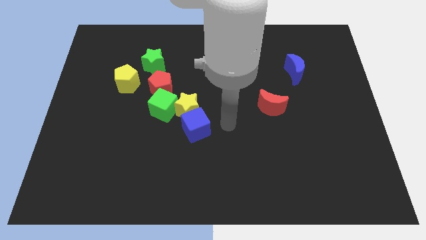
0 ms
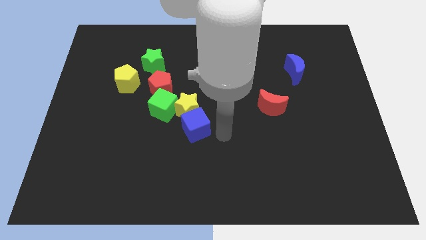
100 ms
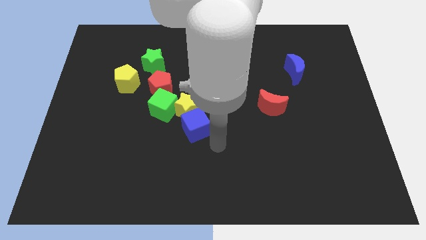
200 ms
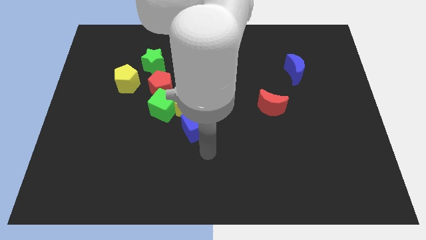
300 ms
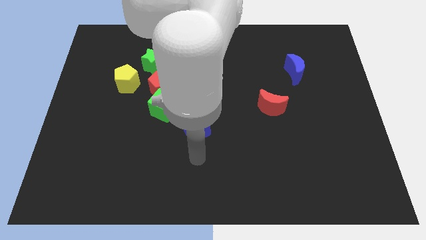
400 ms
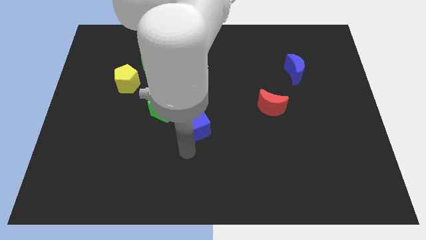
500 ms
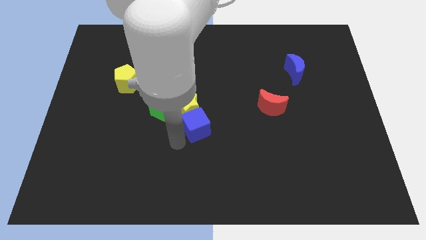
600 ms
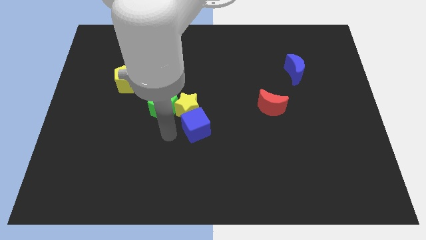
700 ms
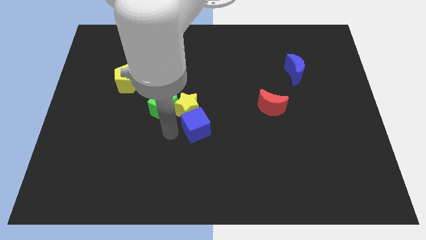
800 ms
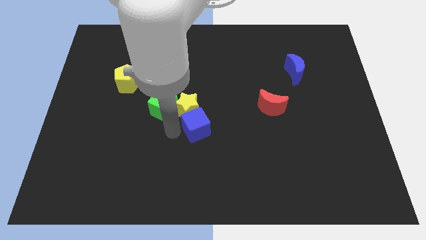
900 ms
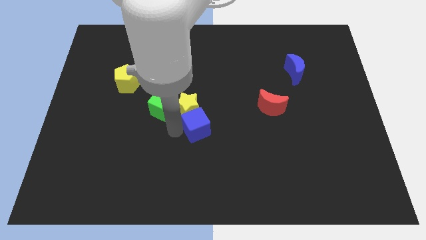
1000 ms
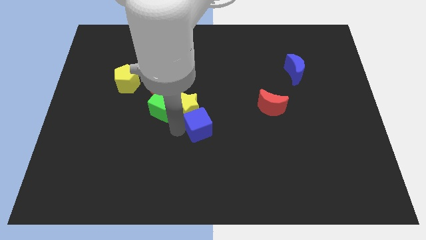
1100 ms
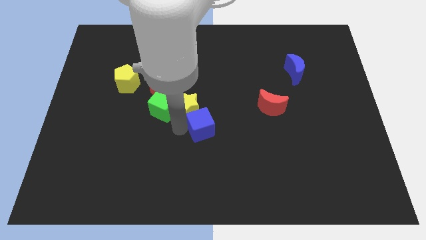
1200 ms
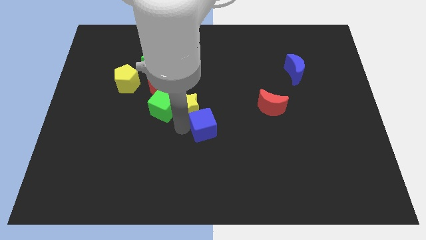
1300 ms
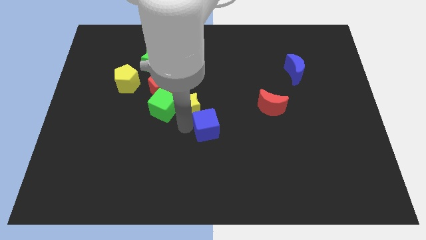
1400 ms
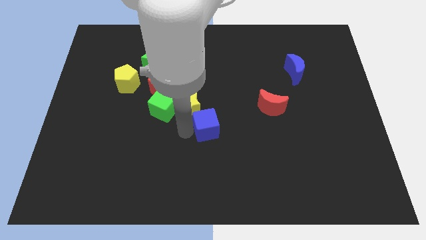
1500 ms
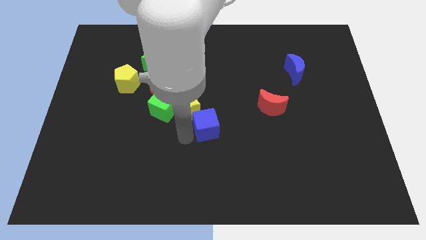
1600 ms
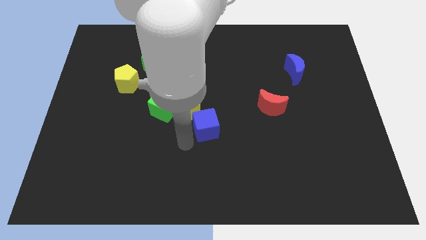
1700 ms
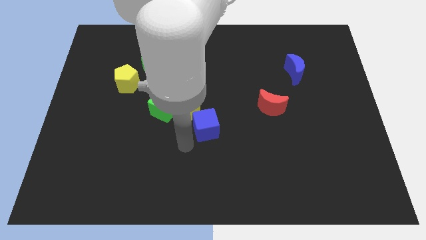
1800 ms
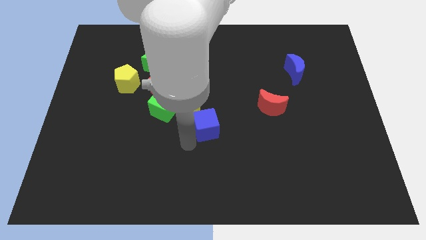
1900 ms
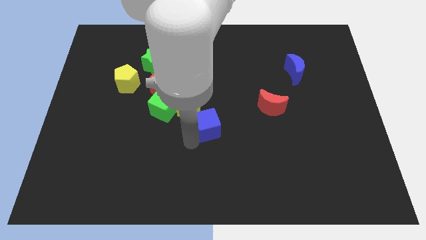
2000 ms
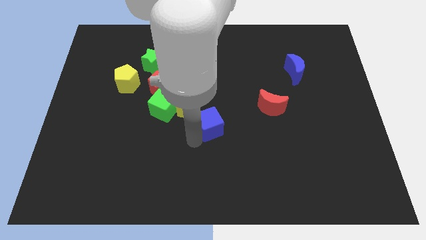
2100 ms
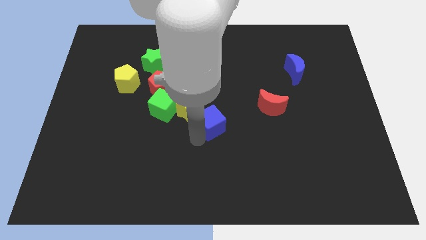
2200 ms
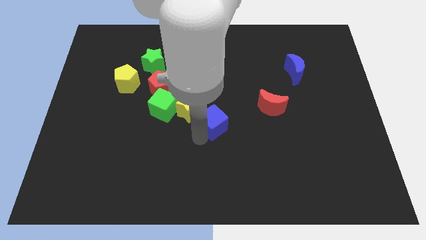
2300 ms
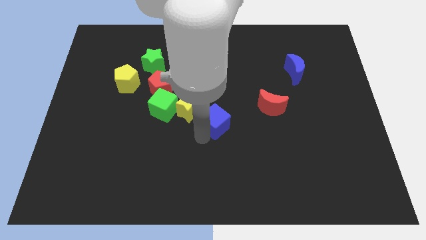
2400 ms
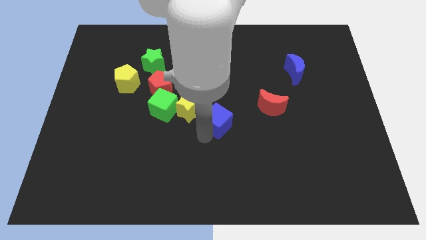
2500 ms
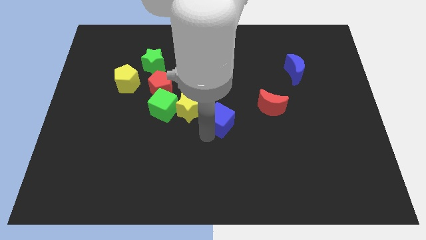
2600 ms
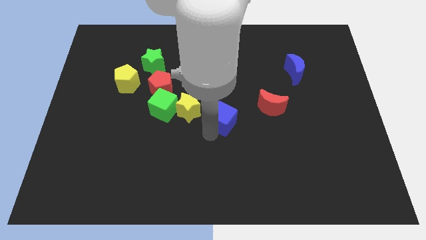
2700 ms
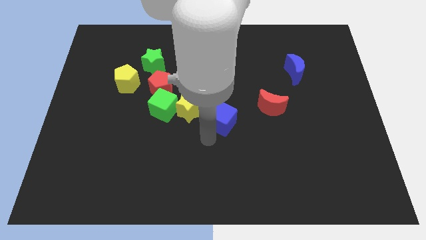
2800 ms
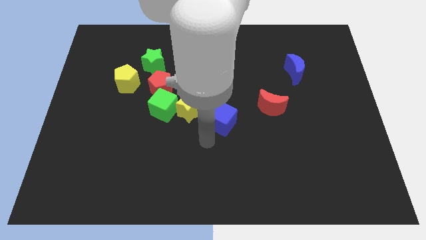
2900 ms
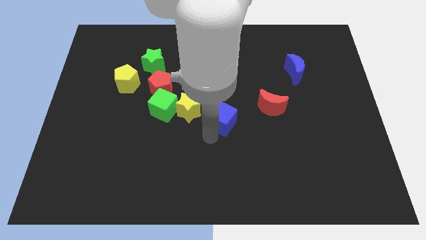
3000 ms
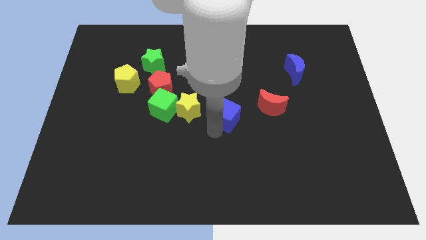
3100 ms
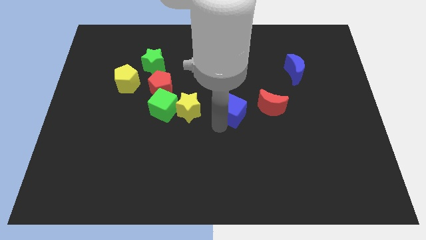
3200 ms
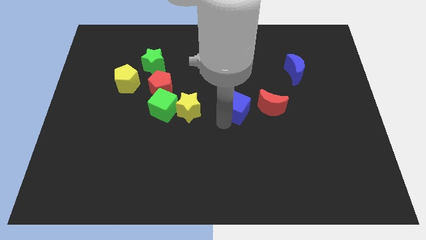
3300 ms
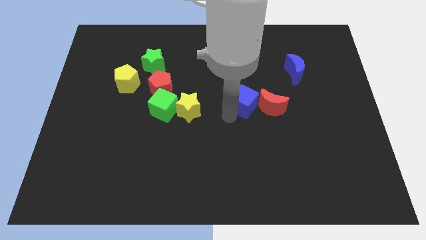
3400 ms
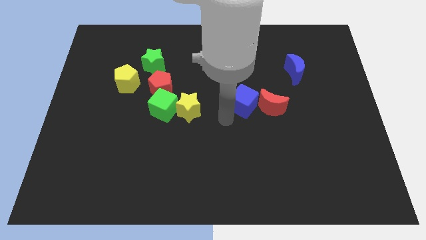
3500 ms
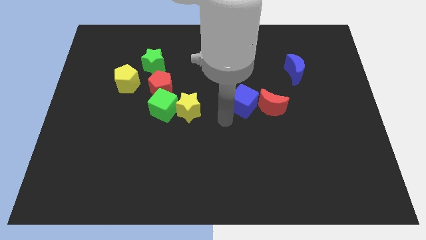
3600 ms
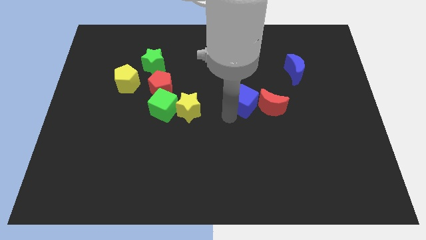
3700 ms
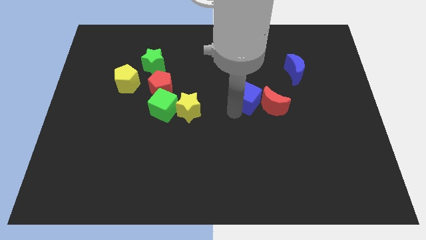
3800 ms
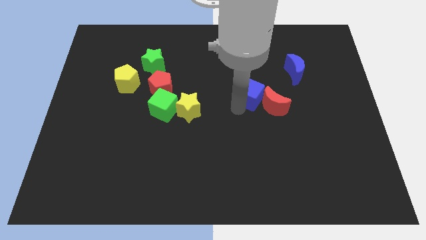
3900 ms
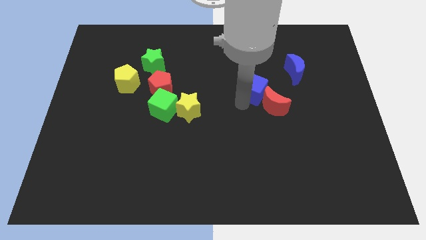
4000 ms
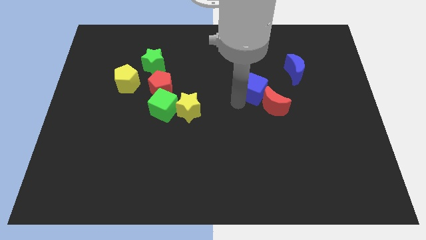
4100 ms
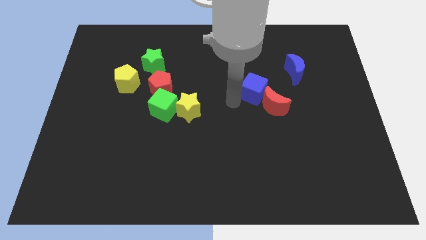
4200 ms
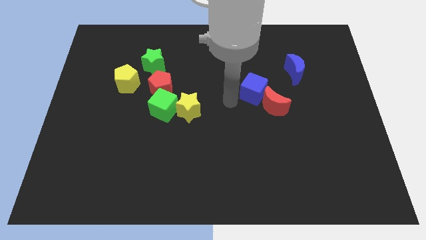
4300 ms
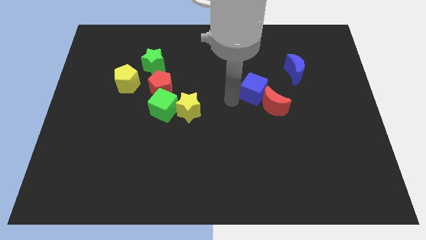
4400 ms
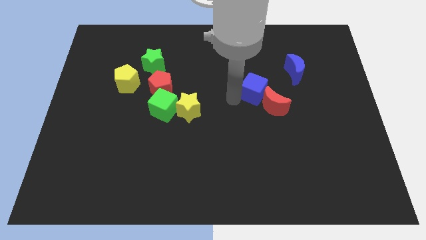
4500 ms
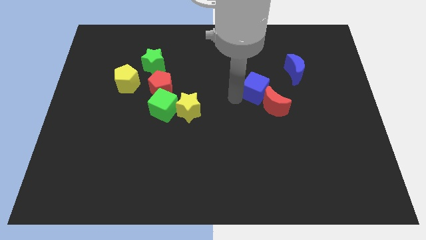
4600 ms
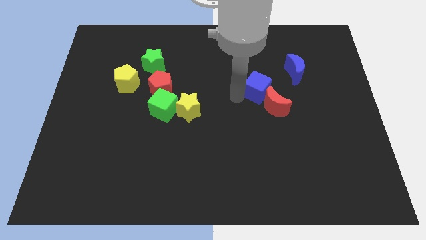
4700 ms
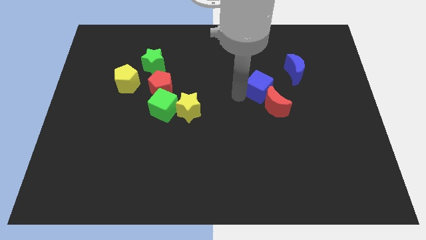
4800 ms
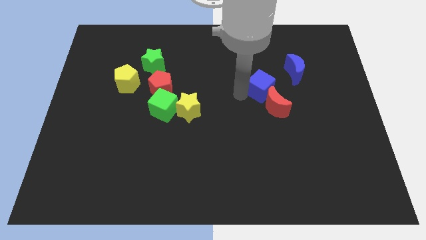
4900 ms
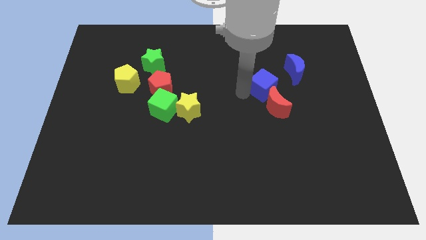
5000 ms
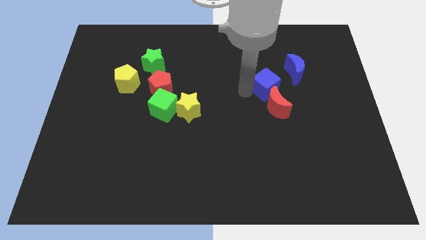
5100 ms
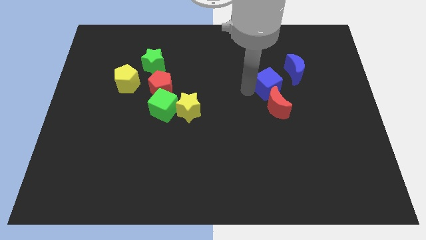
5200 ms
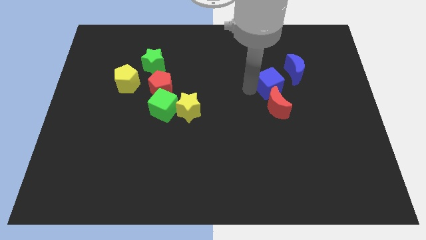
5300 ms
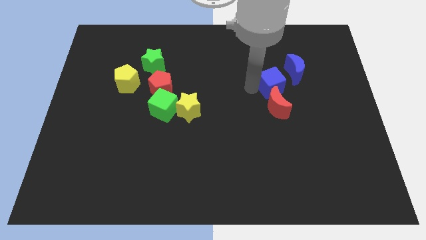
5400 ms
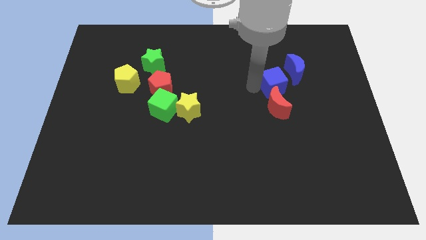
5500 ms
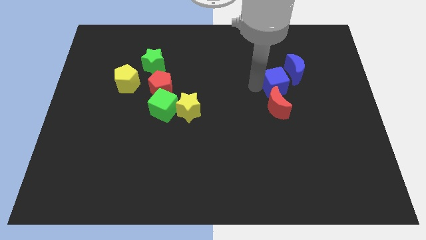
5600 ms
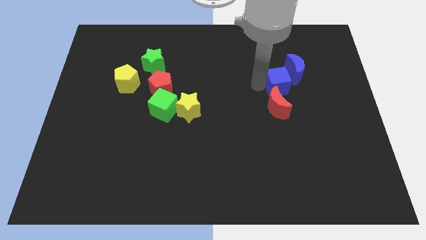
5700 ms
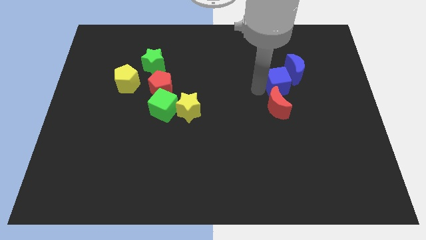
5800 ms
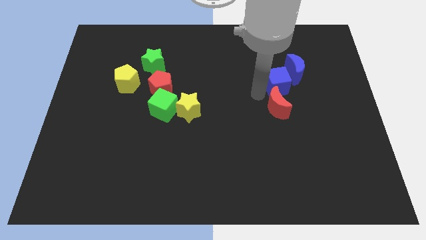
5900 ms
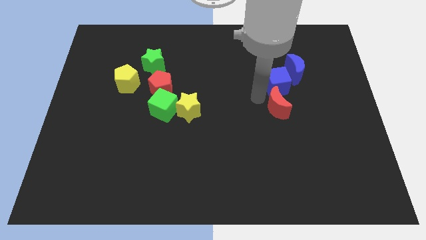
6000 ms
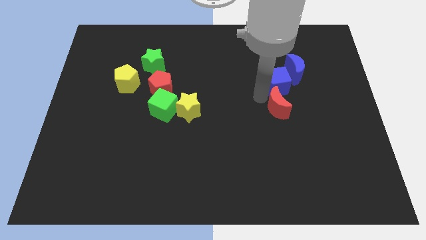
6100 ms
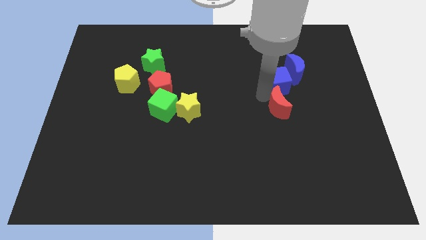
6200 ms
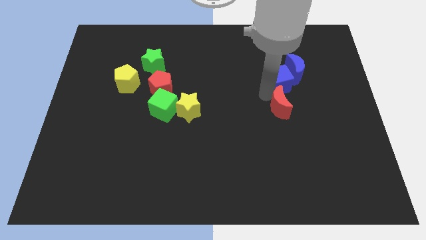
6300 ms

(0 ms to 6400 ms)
move the blue cube next to the blue moon

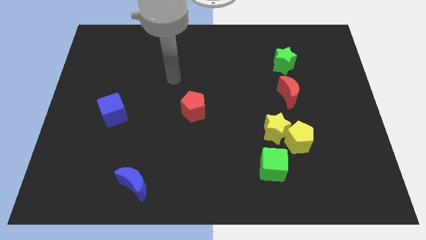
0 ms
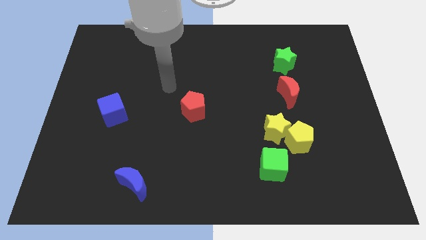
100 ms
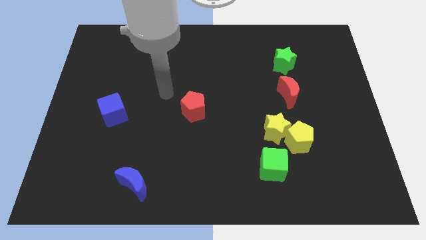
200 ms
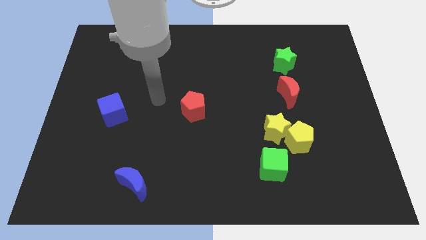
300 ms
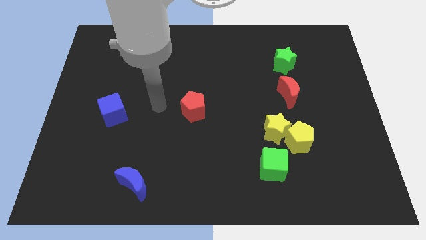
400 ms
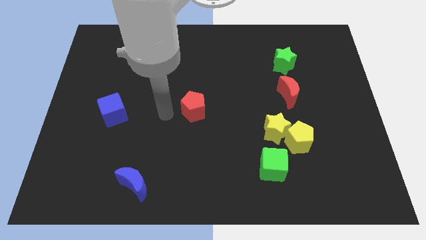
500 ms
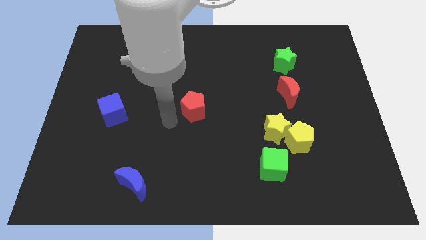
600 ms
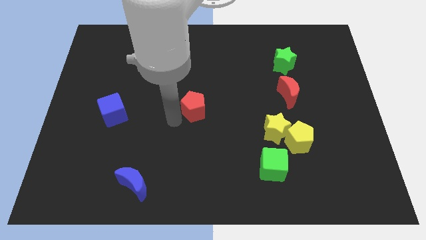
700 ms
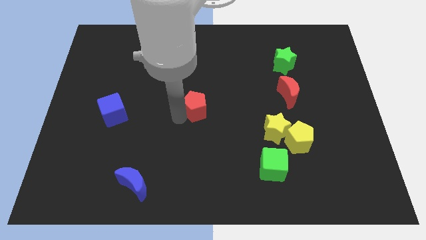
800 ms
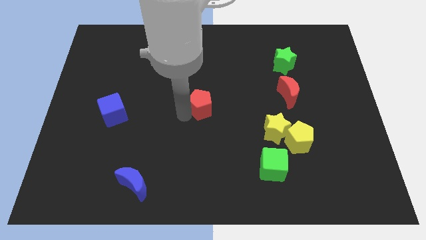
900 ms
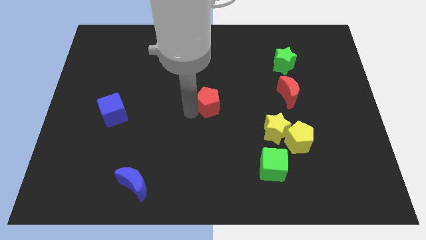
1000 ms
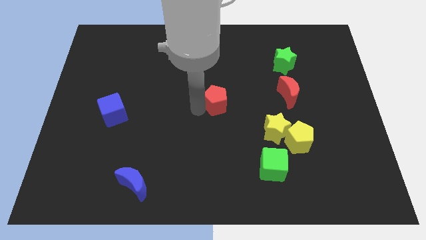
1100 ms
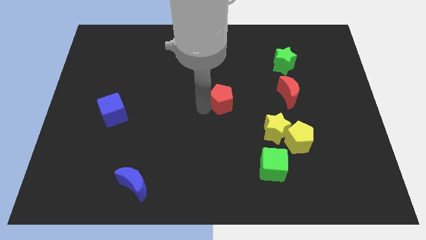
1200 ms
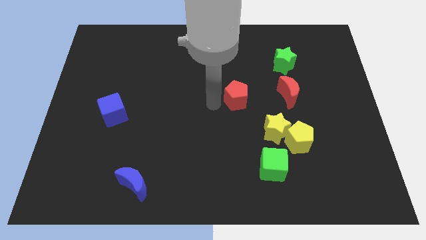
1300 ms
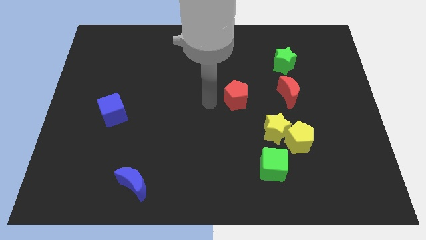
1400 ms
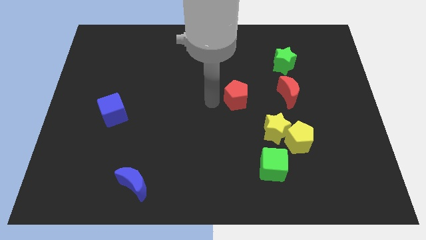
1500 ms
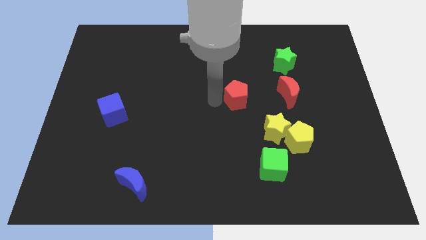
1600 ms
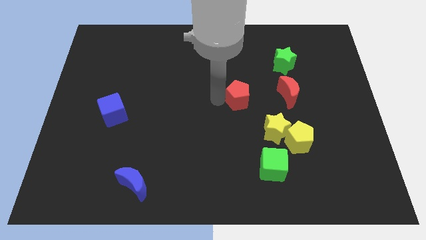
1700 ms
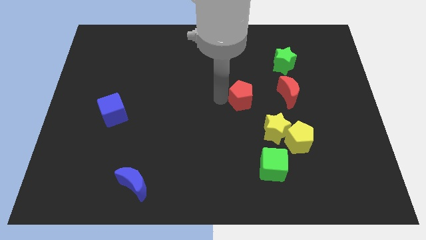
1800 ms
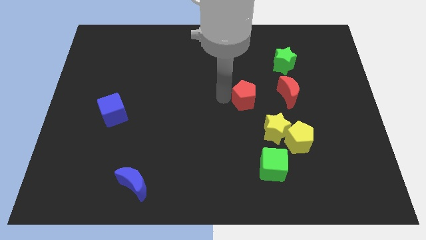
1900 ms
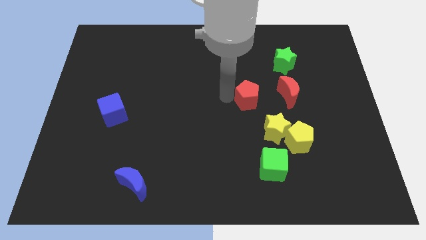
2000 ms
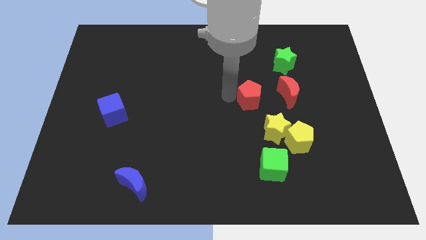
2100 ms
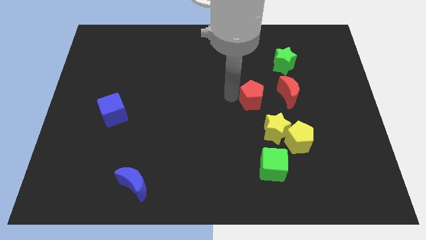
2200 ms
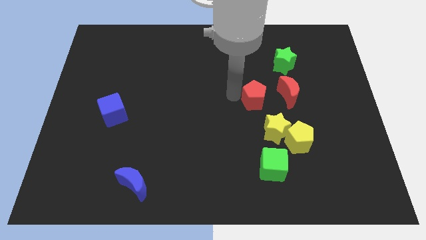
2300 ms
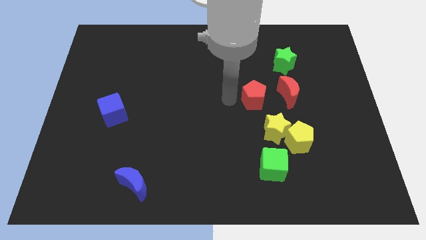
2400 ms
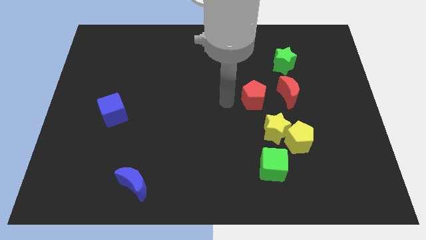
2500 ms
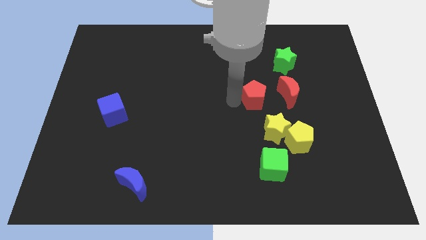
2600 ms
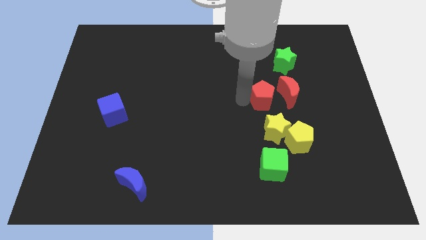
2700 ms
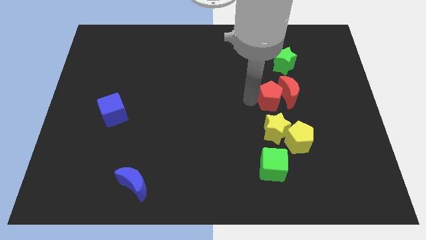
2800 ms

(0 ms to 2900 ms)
push the red pentagon to the red moon
